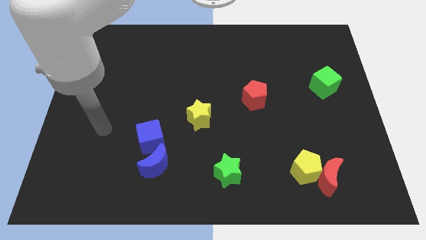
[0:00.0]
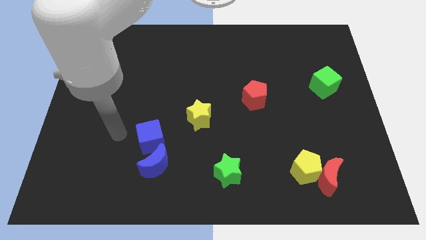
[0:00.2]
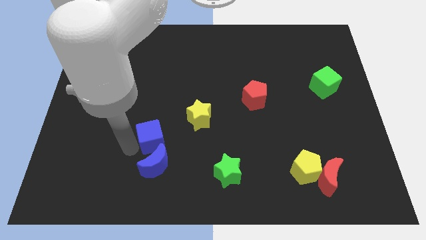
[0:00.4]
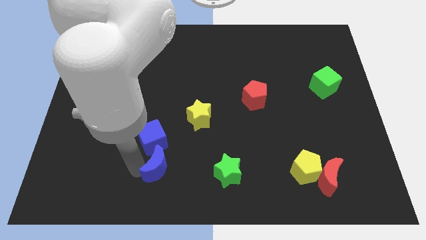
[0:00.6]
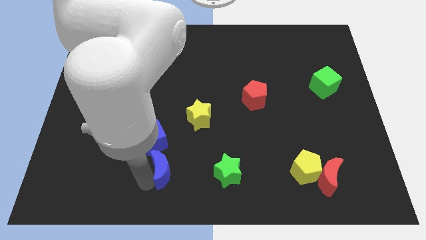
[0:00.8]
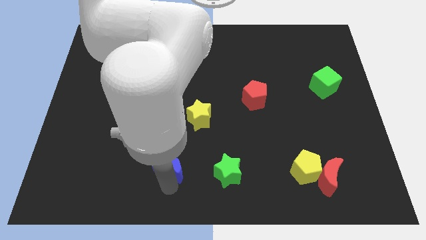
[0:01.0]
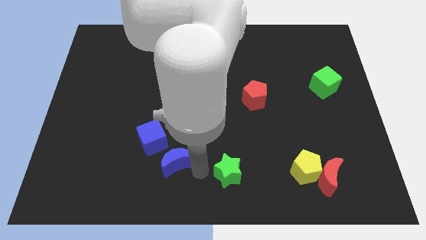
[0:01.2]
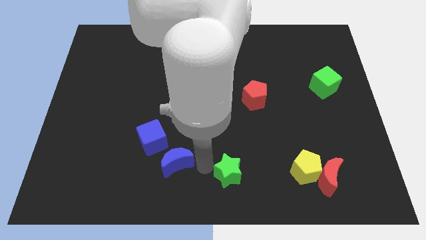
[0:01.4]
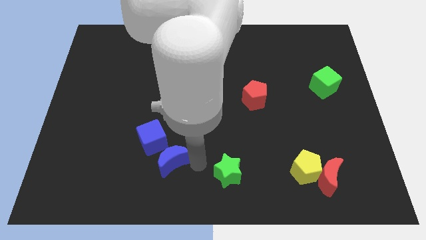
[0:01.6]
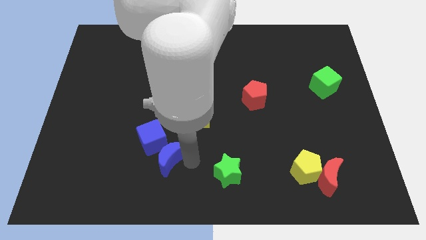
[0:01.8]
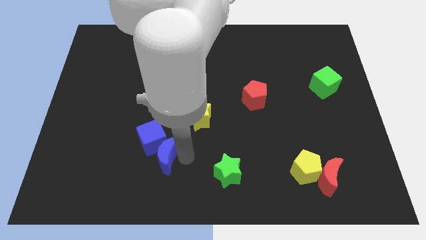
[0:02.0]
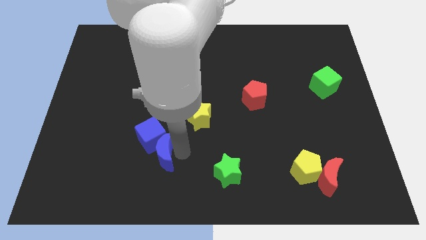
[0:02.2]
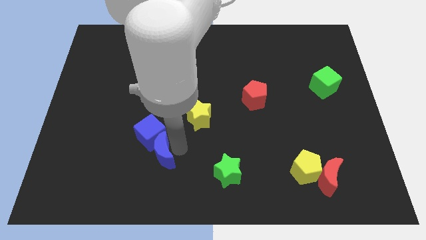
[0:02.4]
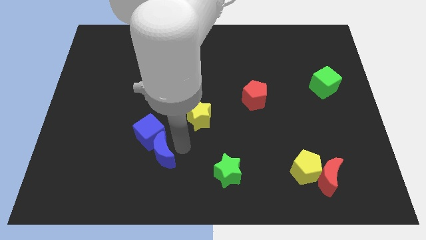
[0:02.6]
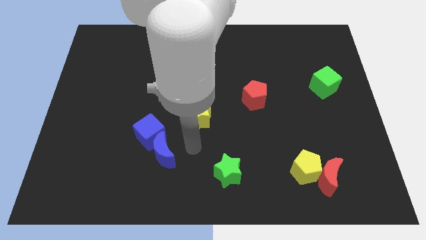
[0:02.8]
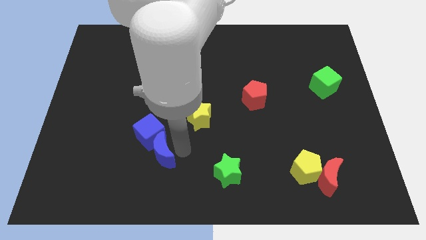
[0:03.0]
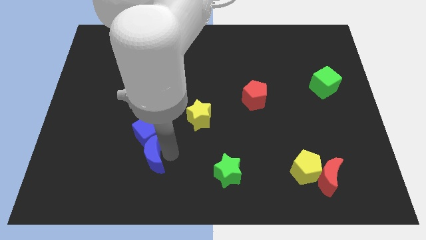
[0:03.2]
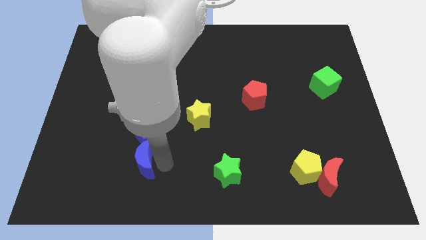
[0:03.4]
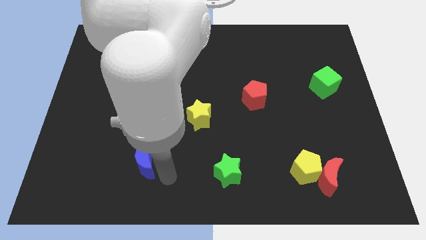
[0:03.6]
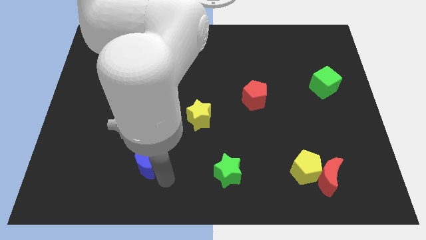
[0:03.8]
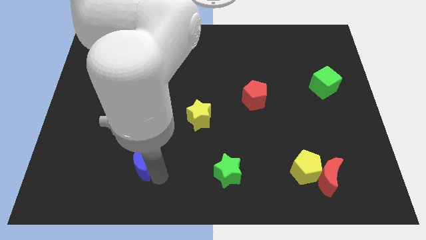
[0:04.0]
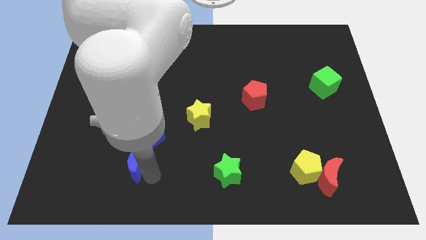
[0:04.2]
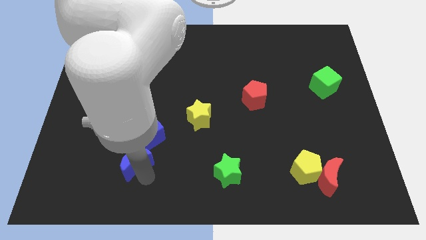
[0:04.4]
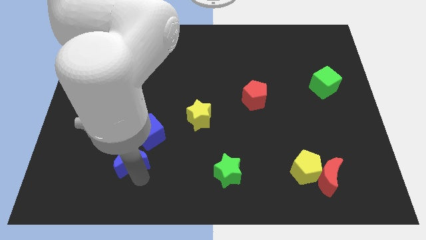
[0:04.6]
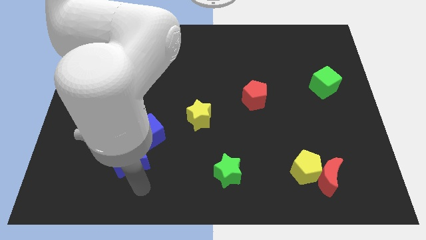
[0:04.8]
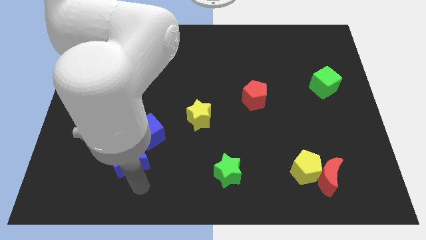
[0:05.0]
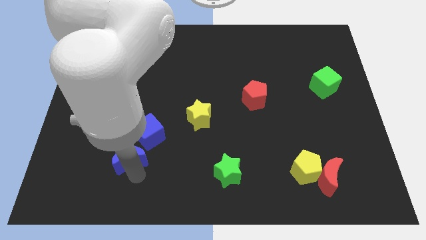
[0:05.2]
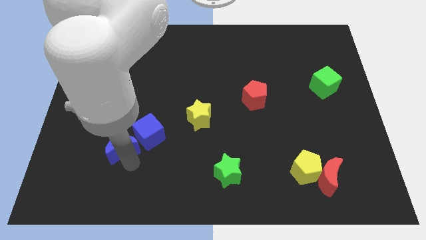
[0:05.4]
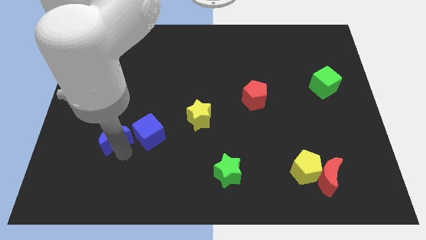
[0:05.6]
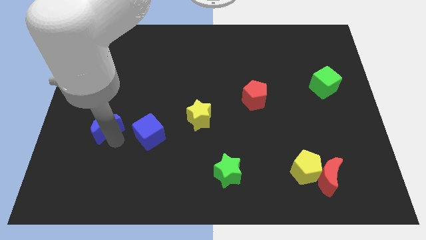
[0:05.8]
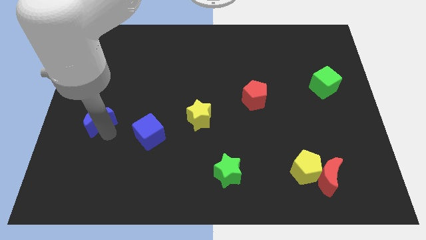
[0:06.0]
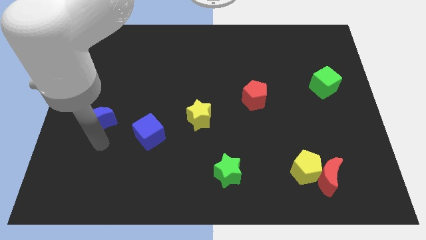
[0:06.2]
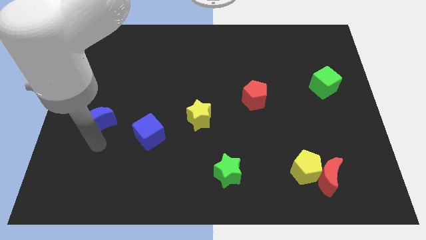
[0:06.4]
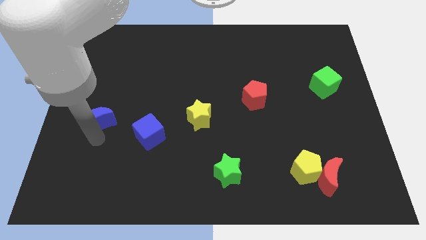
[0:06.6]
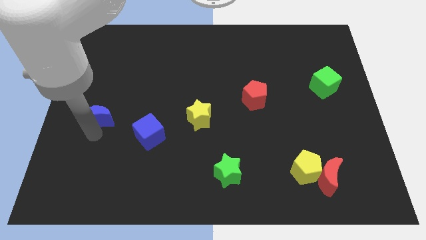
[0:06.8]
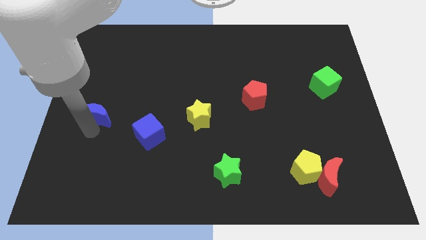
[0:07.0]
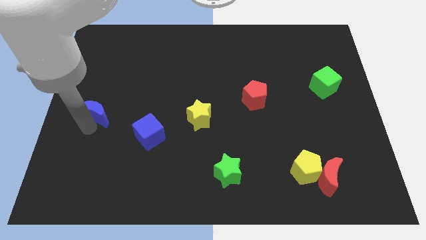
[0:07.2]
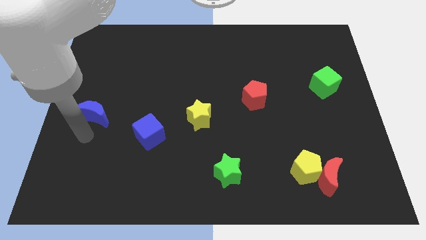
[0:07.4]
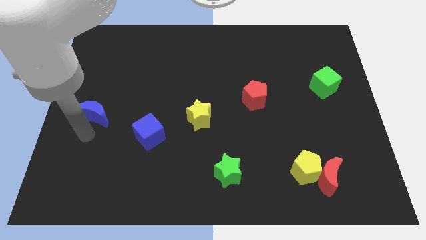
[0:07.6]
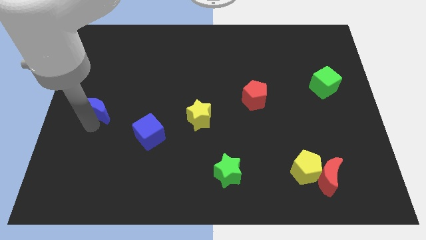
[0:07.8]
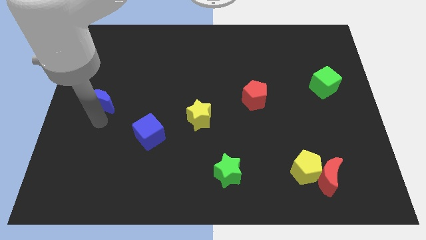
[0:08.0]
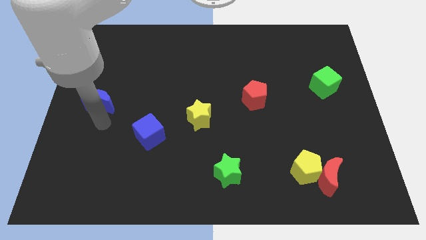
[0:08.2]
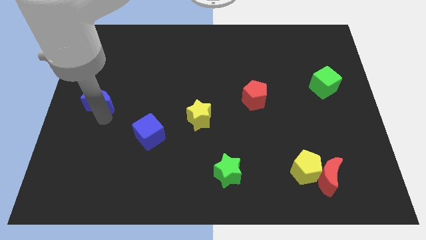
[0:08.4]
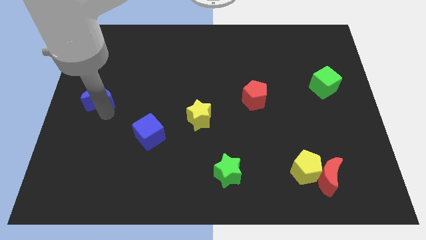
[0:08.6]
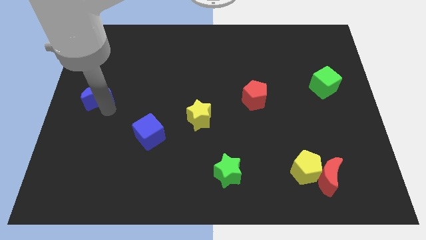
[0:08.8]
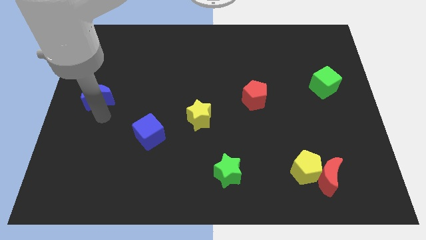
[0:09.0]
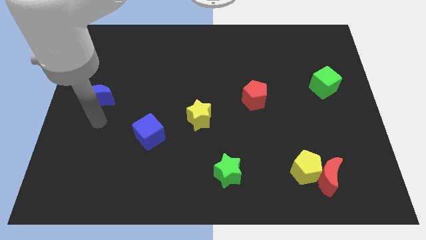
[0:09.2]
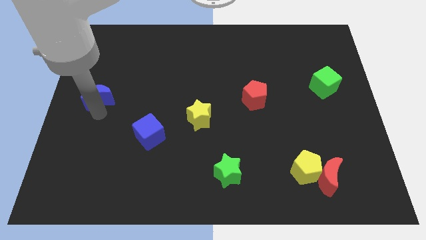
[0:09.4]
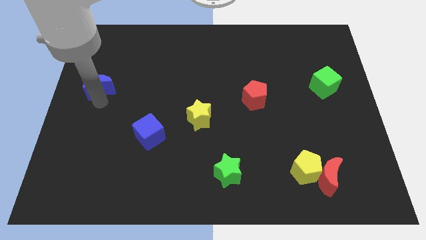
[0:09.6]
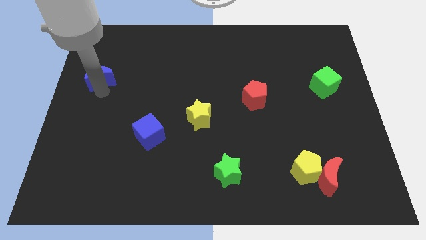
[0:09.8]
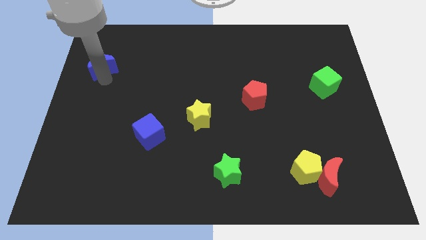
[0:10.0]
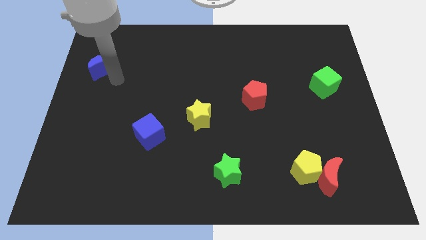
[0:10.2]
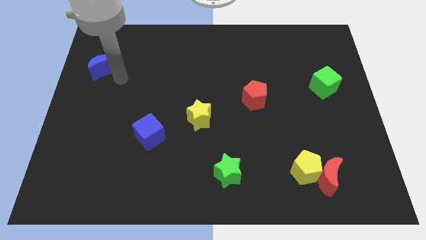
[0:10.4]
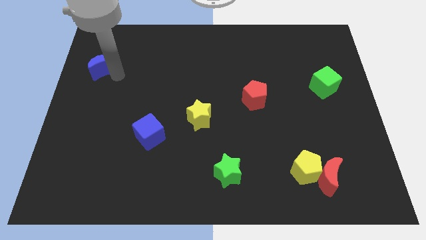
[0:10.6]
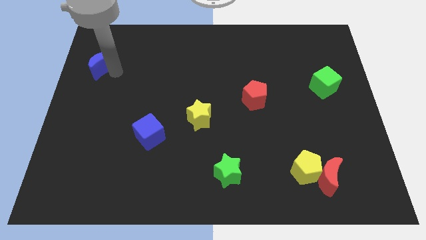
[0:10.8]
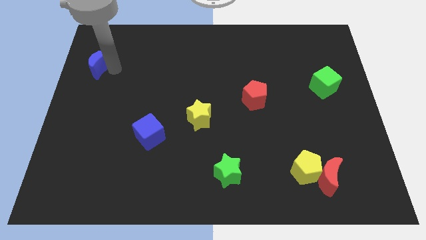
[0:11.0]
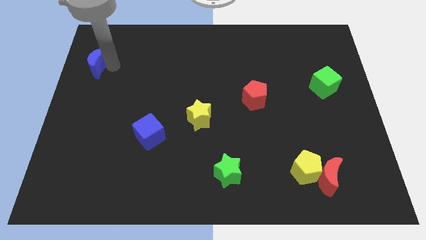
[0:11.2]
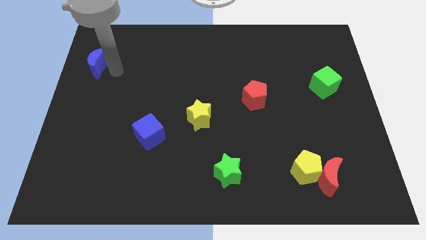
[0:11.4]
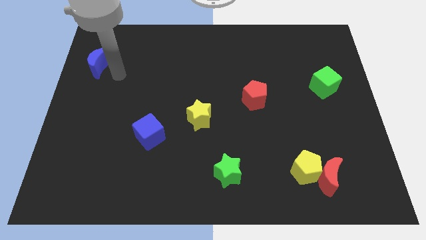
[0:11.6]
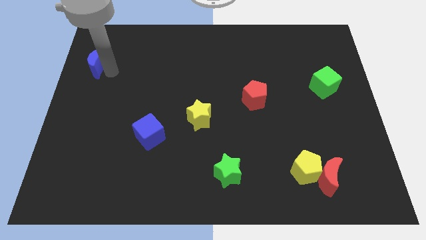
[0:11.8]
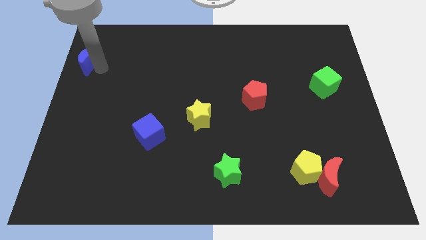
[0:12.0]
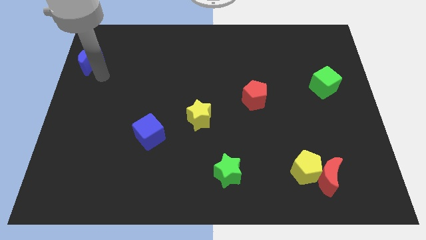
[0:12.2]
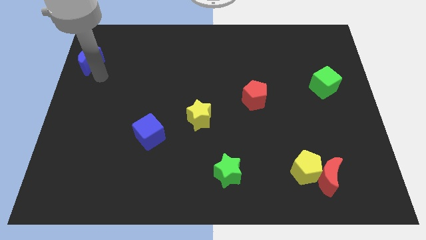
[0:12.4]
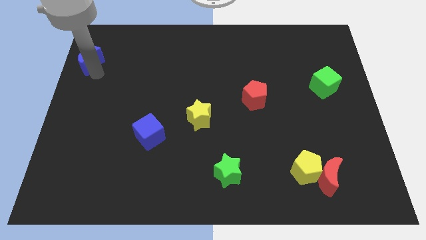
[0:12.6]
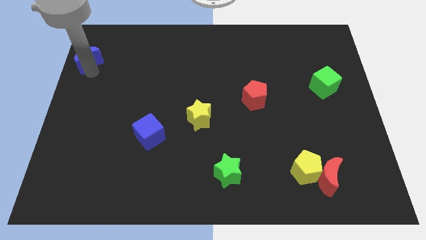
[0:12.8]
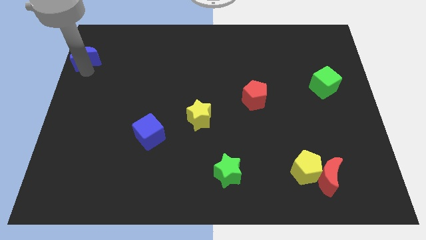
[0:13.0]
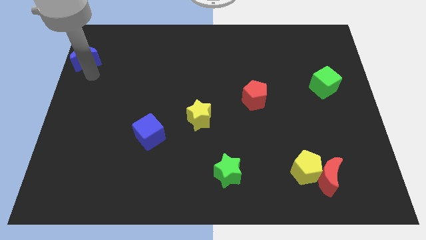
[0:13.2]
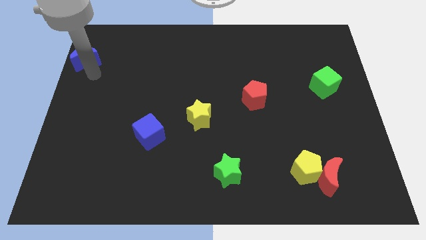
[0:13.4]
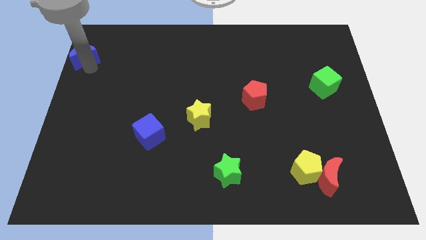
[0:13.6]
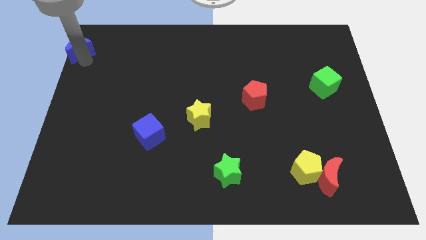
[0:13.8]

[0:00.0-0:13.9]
slide the blue moon to the top left corner

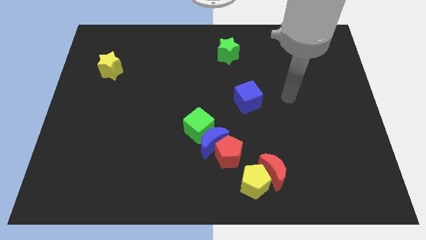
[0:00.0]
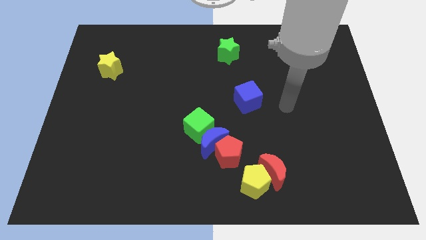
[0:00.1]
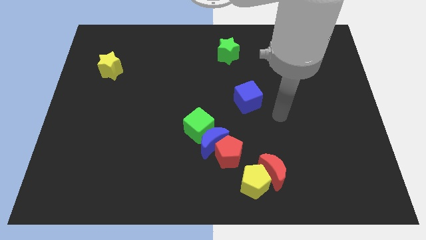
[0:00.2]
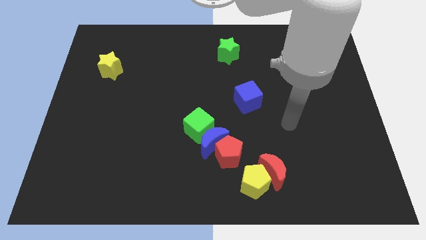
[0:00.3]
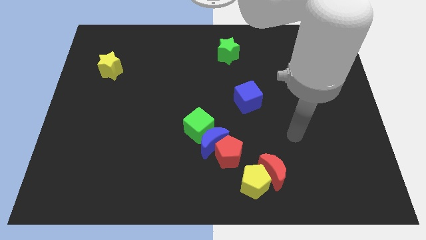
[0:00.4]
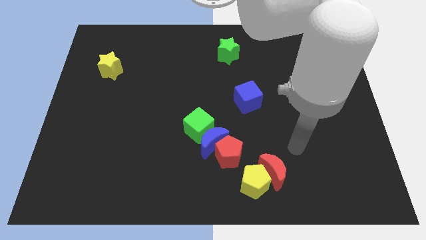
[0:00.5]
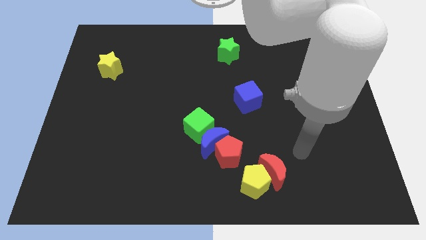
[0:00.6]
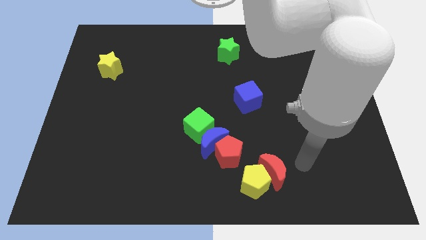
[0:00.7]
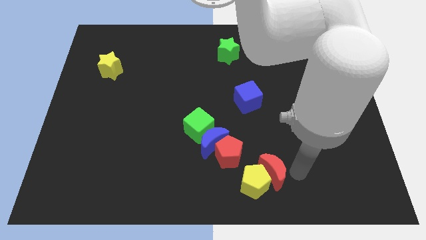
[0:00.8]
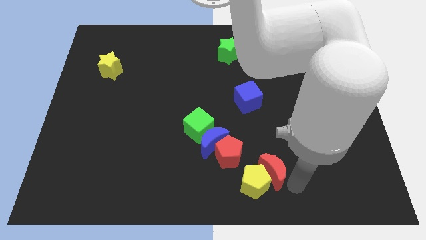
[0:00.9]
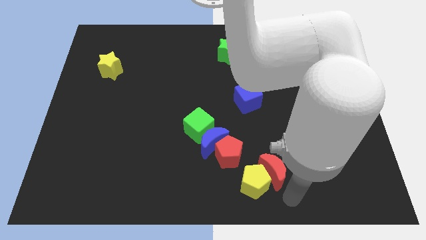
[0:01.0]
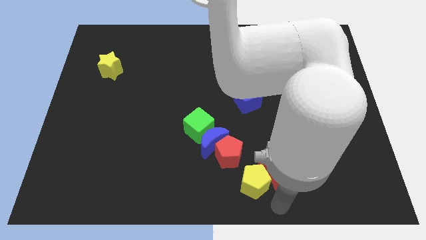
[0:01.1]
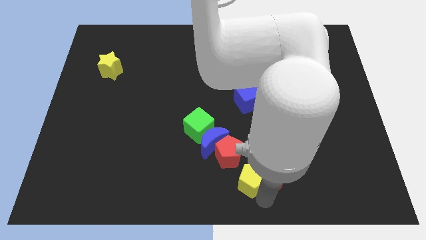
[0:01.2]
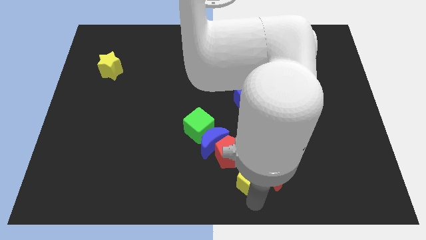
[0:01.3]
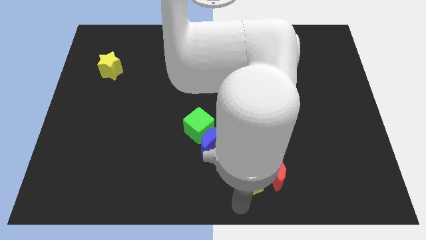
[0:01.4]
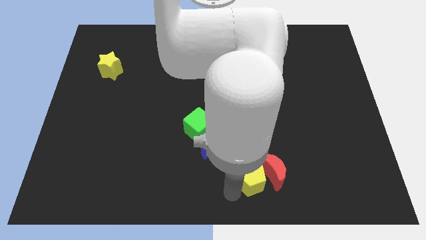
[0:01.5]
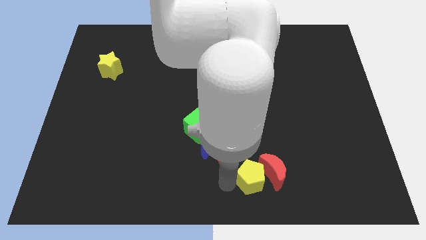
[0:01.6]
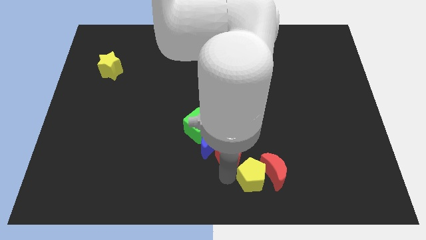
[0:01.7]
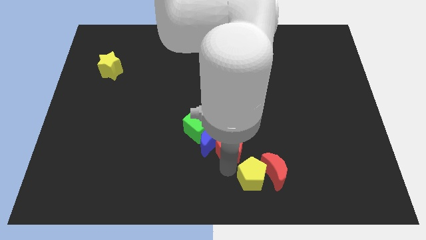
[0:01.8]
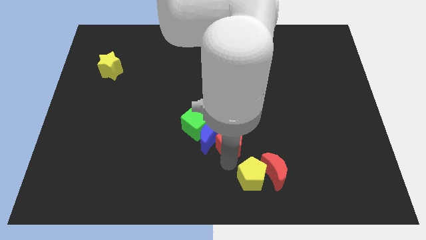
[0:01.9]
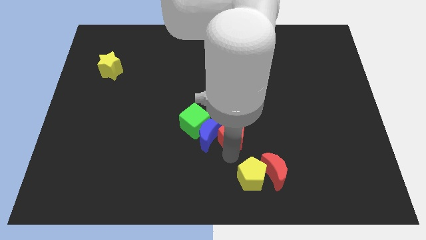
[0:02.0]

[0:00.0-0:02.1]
slide the red pentagon to the middle of the board
